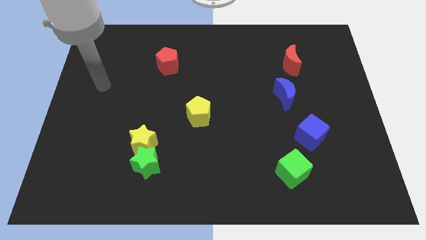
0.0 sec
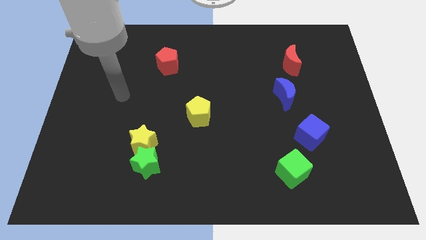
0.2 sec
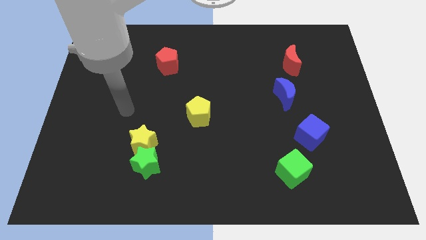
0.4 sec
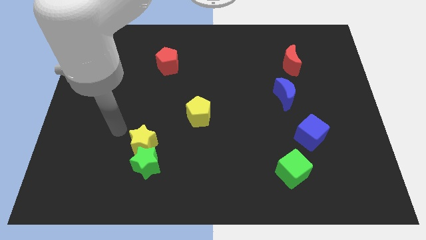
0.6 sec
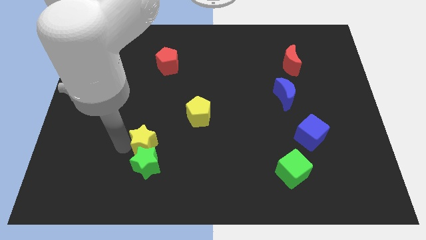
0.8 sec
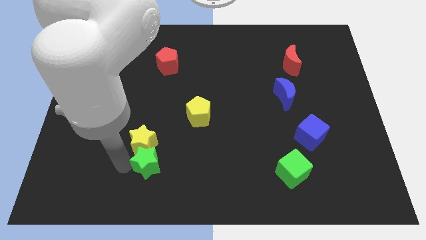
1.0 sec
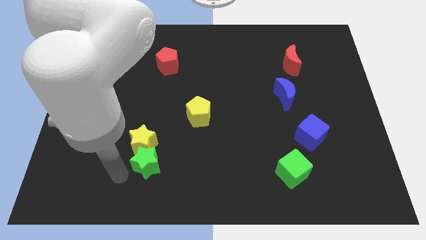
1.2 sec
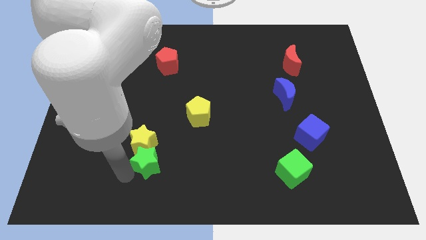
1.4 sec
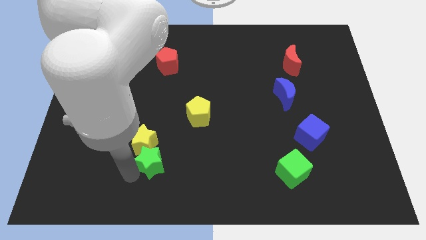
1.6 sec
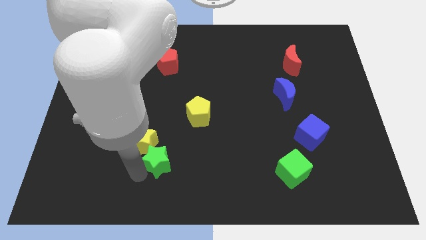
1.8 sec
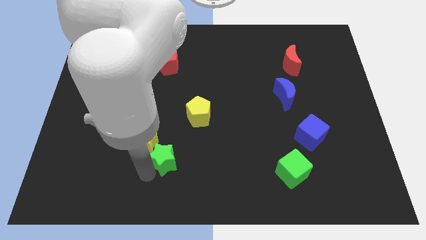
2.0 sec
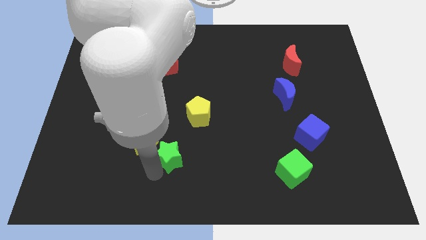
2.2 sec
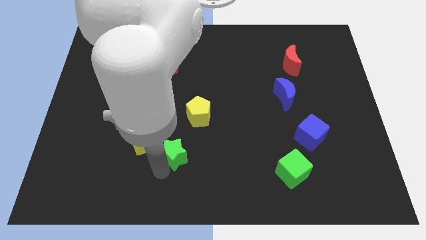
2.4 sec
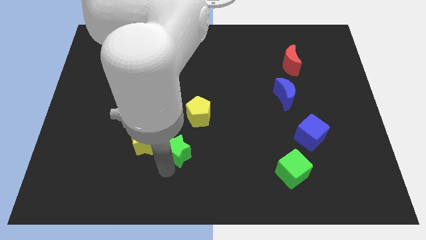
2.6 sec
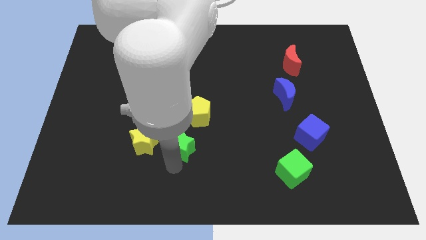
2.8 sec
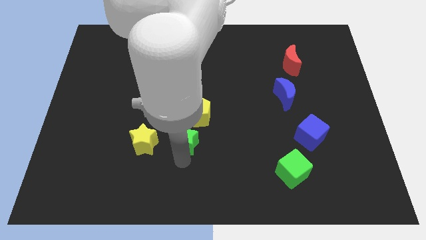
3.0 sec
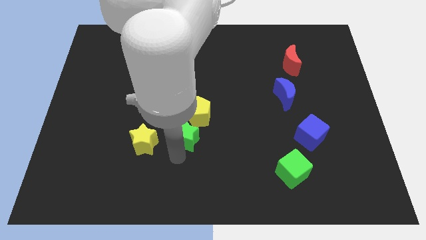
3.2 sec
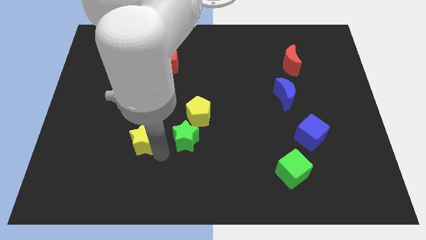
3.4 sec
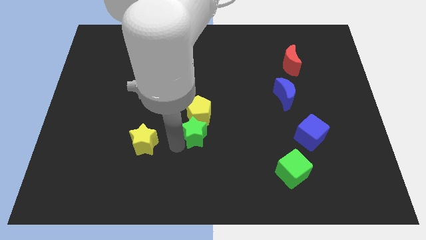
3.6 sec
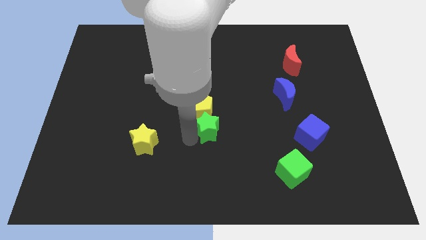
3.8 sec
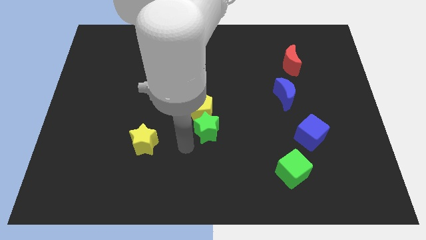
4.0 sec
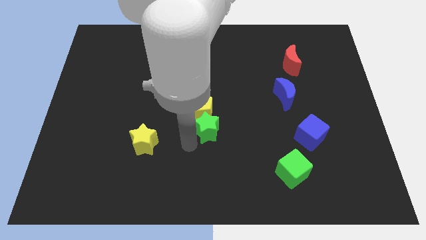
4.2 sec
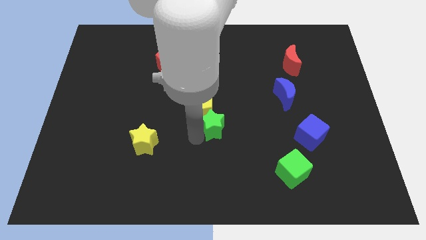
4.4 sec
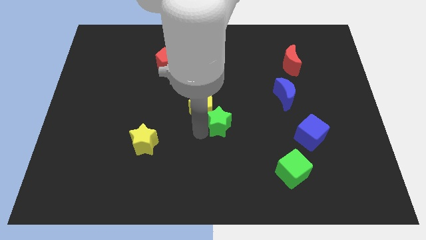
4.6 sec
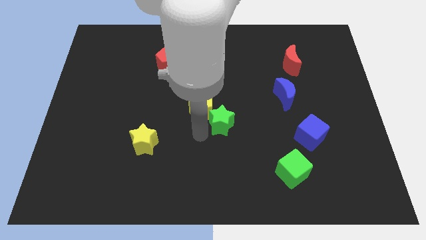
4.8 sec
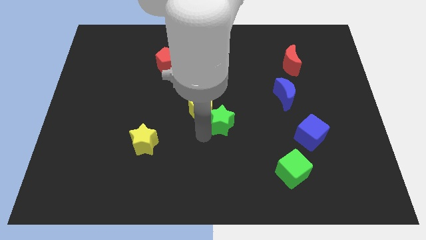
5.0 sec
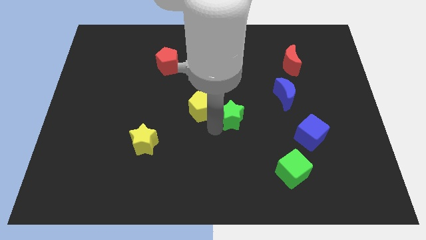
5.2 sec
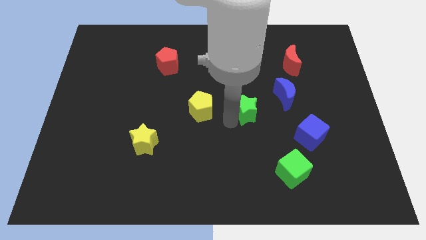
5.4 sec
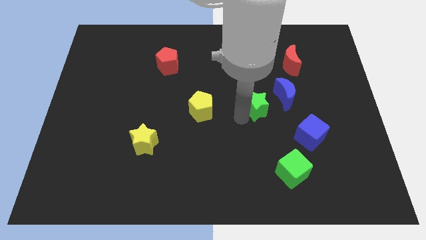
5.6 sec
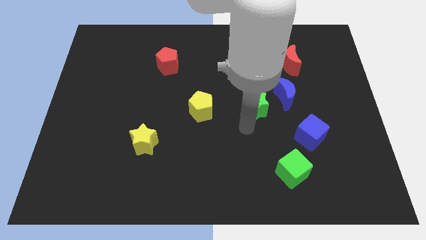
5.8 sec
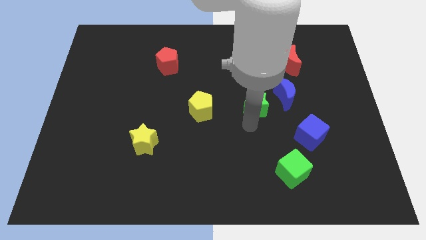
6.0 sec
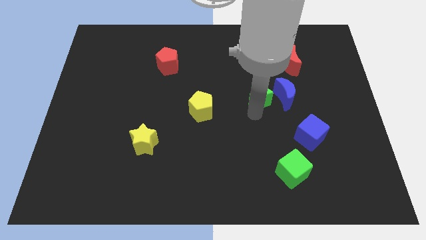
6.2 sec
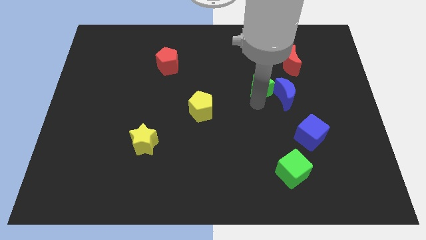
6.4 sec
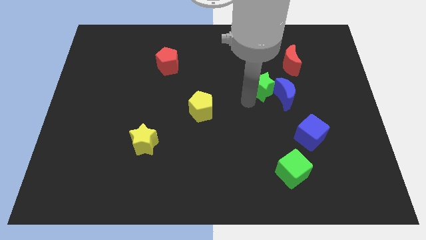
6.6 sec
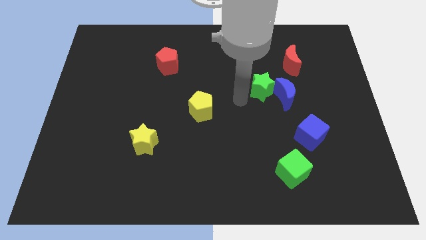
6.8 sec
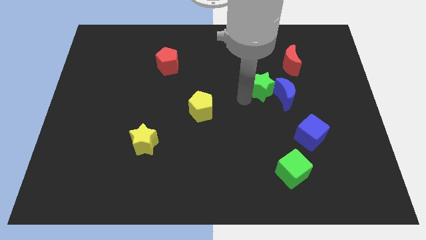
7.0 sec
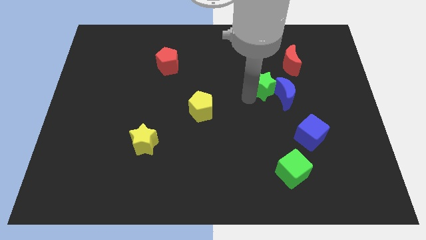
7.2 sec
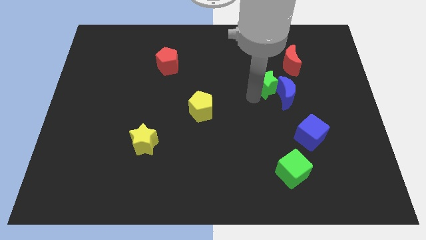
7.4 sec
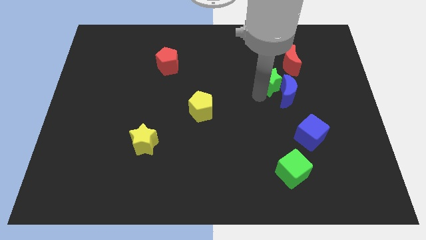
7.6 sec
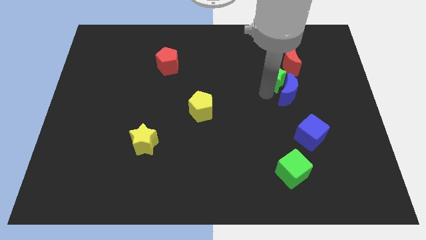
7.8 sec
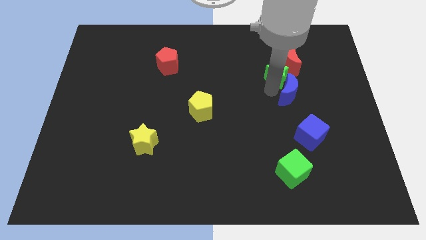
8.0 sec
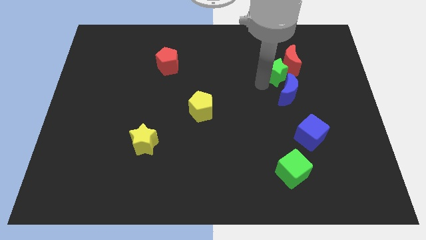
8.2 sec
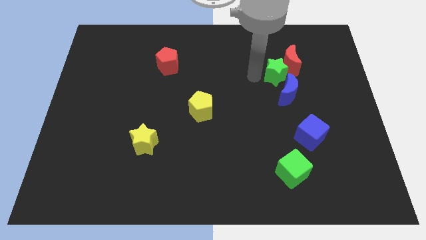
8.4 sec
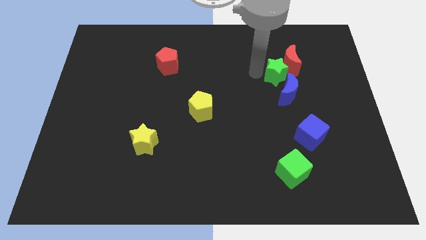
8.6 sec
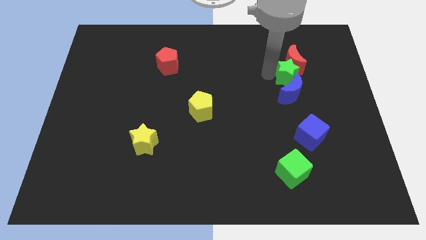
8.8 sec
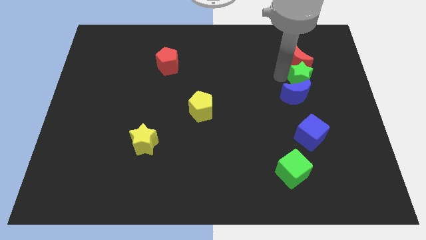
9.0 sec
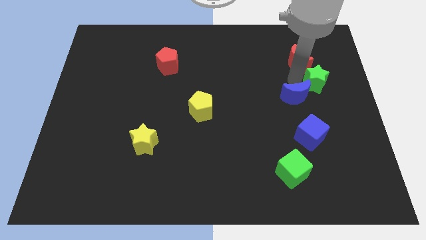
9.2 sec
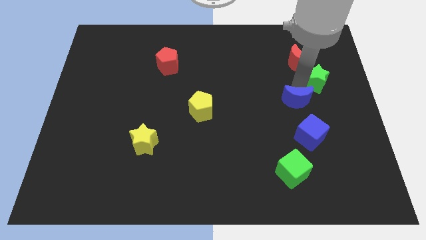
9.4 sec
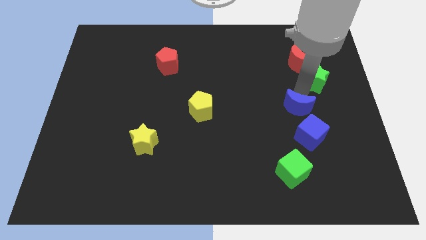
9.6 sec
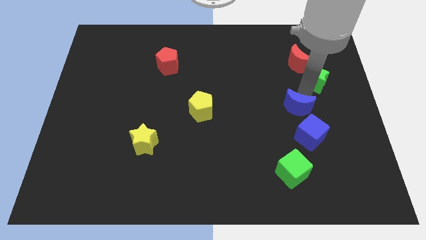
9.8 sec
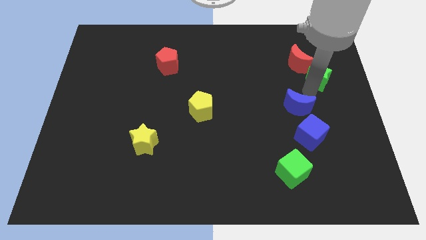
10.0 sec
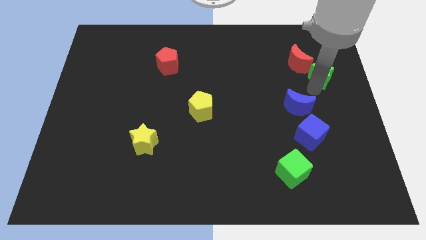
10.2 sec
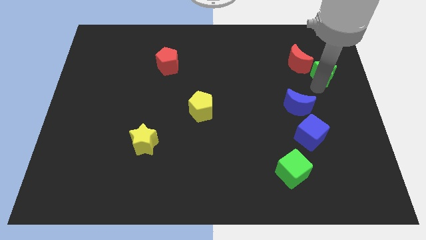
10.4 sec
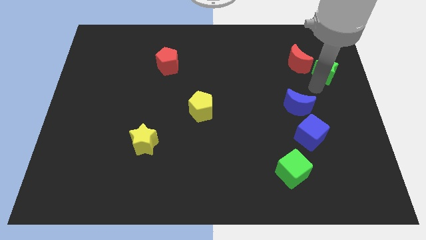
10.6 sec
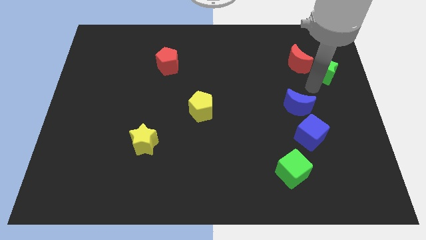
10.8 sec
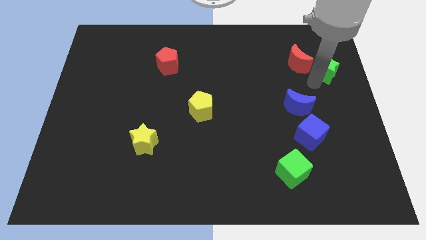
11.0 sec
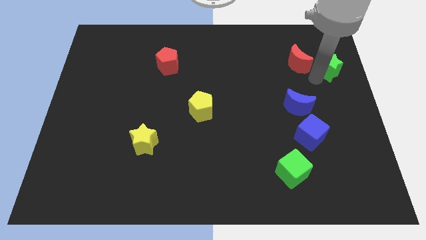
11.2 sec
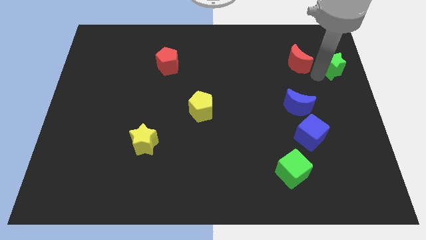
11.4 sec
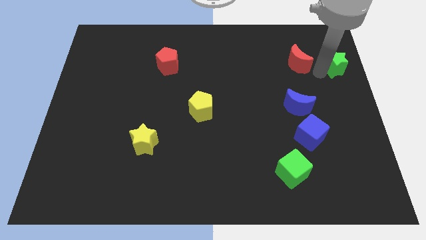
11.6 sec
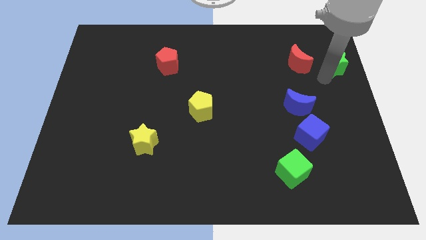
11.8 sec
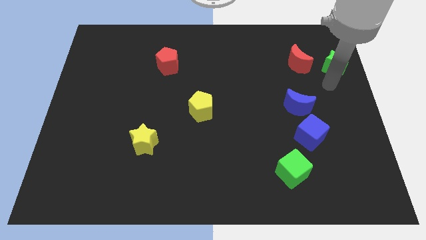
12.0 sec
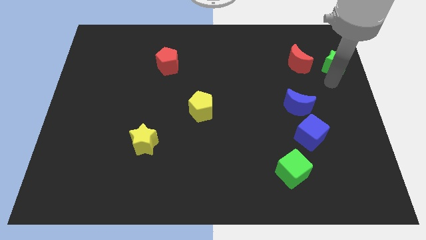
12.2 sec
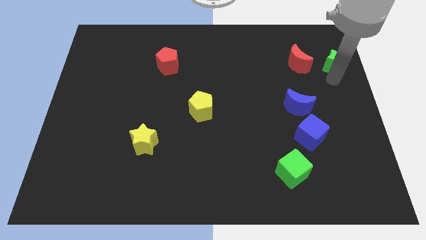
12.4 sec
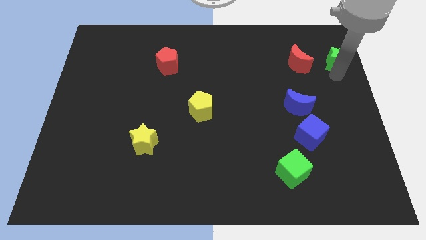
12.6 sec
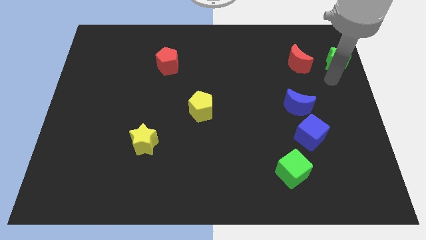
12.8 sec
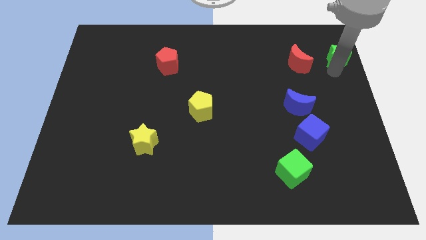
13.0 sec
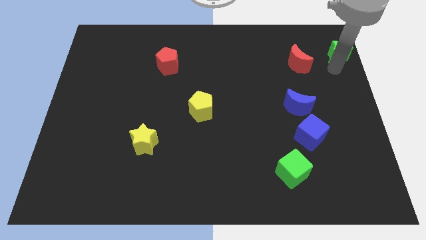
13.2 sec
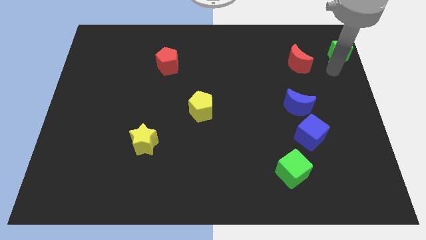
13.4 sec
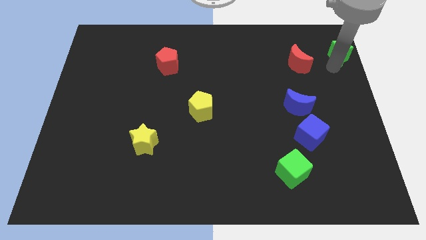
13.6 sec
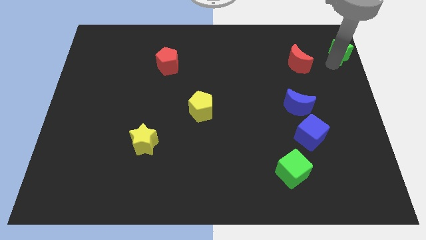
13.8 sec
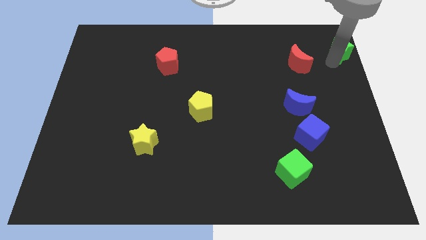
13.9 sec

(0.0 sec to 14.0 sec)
move the green star to the top right of the board

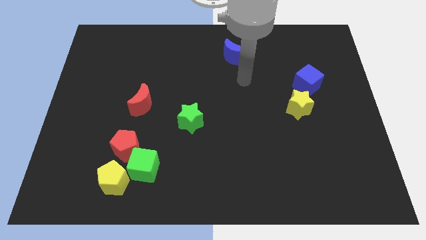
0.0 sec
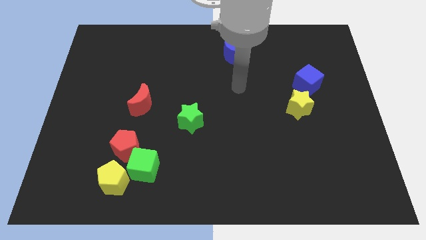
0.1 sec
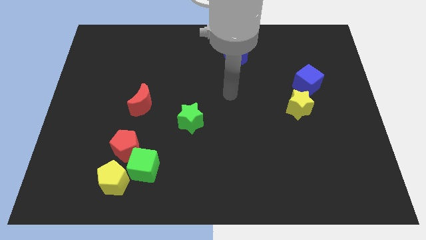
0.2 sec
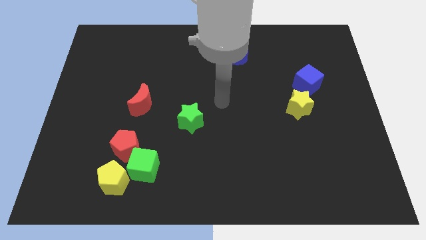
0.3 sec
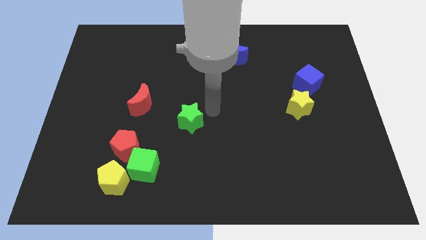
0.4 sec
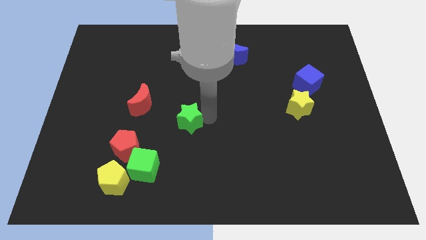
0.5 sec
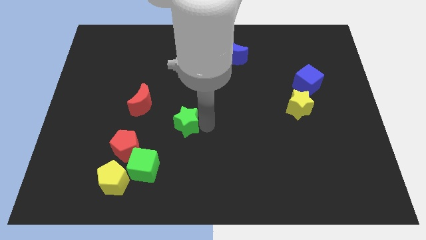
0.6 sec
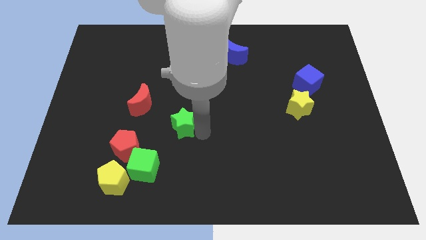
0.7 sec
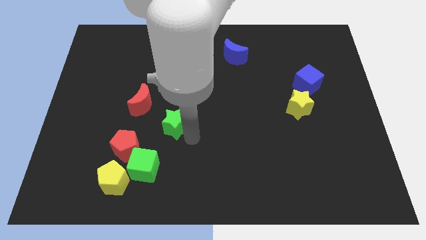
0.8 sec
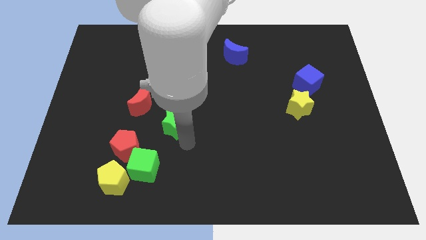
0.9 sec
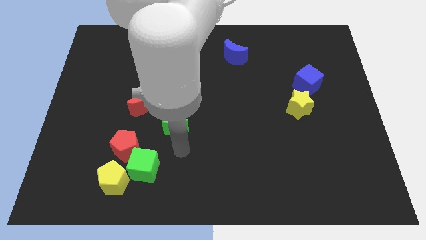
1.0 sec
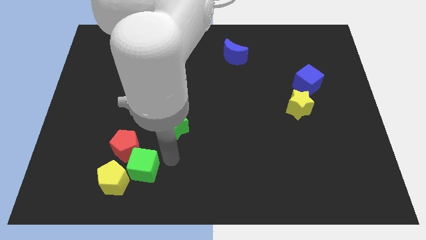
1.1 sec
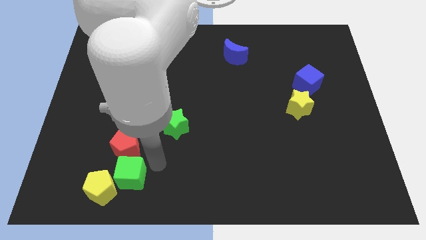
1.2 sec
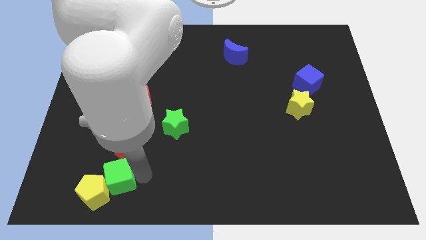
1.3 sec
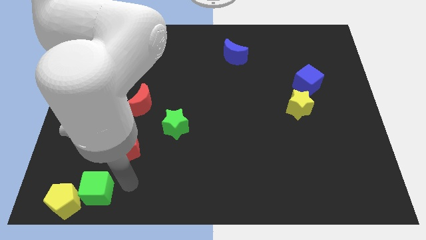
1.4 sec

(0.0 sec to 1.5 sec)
move the yellow pentagon to the bottom left of the board
